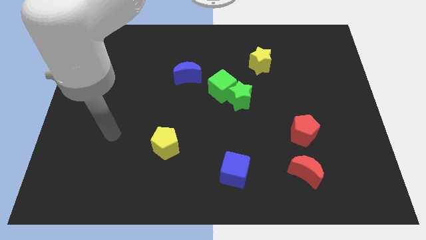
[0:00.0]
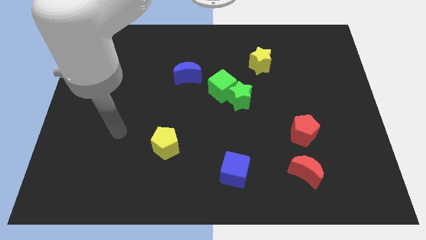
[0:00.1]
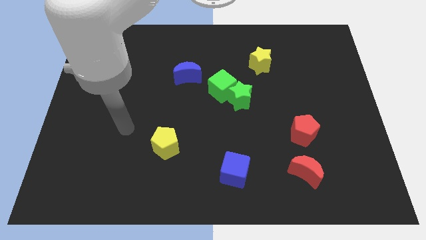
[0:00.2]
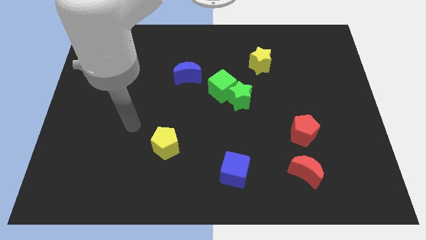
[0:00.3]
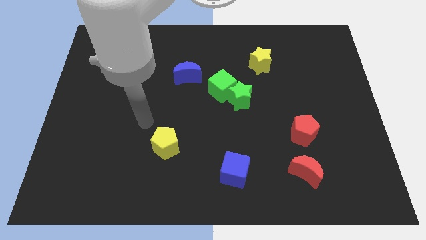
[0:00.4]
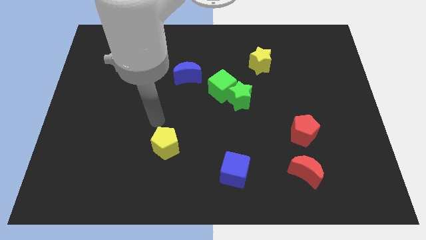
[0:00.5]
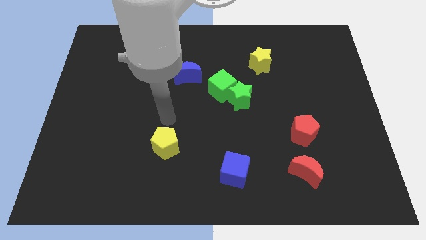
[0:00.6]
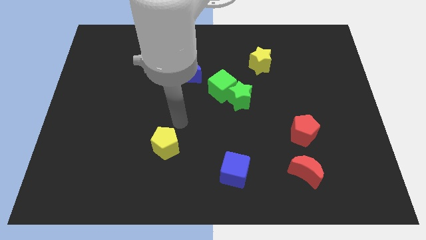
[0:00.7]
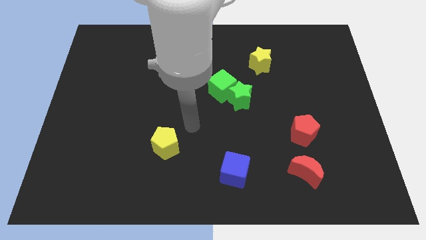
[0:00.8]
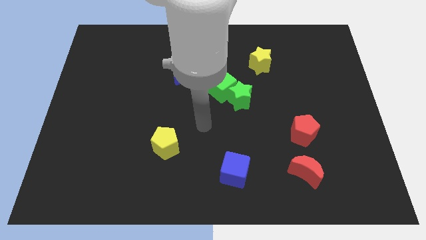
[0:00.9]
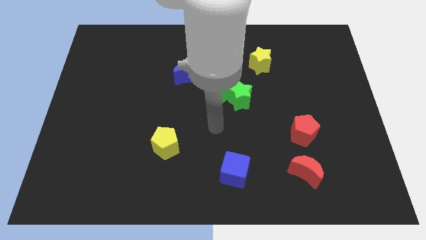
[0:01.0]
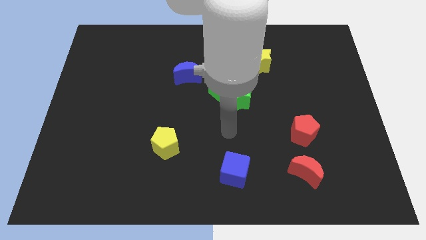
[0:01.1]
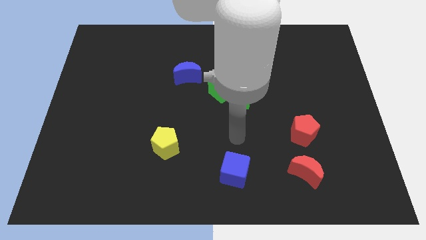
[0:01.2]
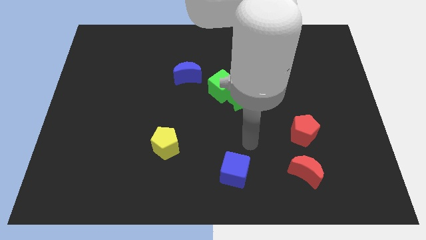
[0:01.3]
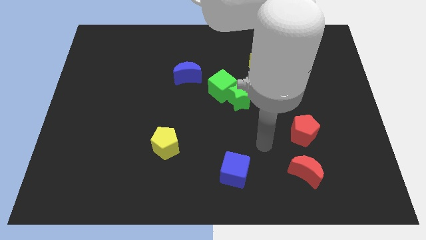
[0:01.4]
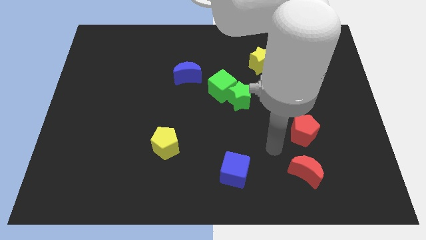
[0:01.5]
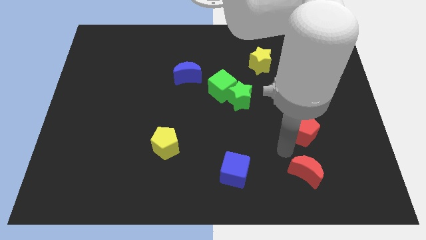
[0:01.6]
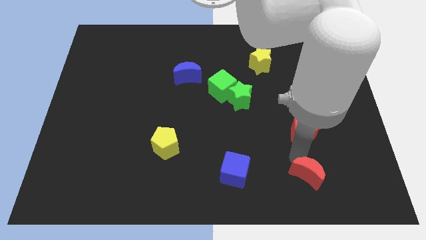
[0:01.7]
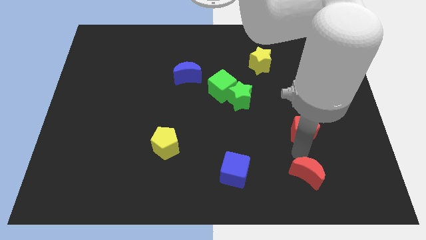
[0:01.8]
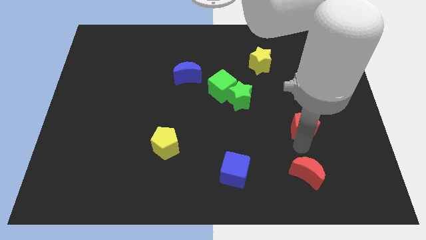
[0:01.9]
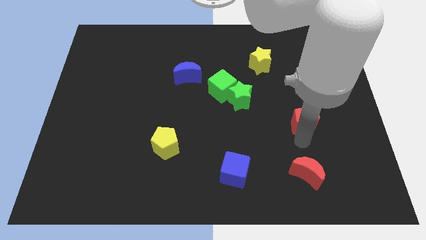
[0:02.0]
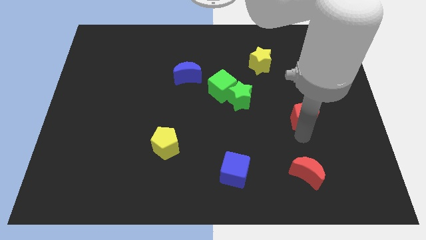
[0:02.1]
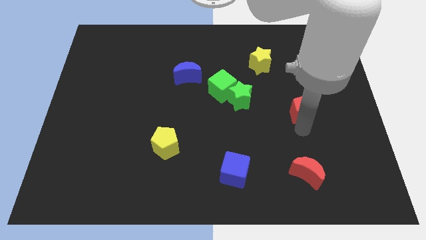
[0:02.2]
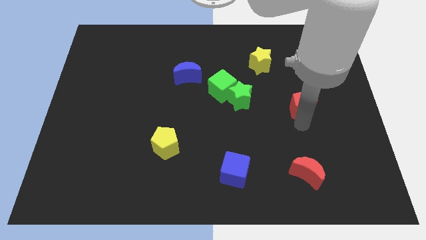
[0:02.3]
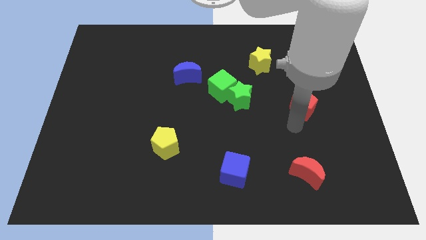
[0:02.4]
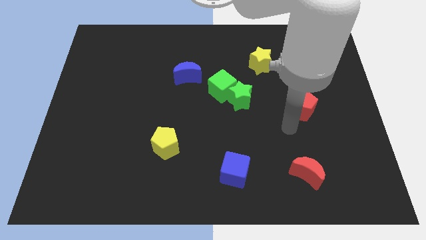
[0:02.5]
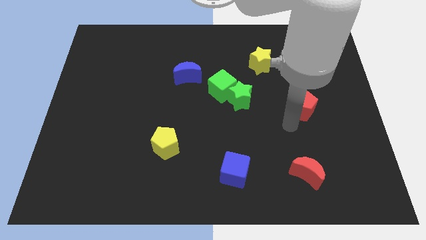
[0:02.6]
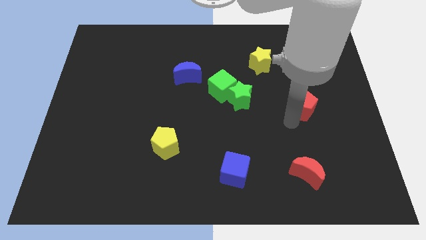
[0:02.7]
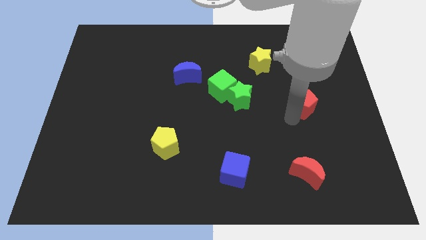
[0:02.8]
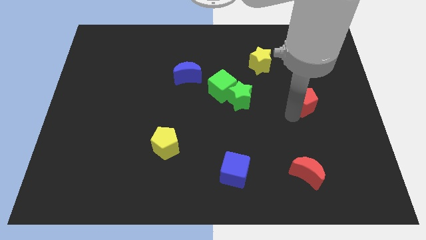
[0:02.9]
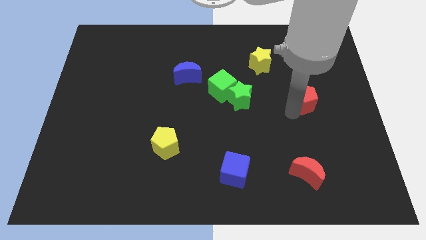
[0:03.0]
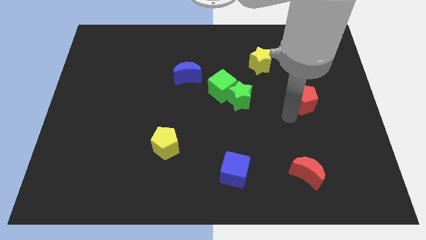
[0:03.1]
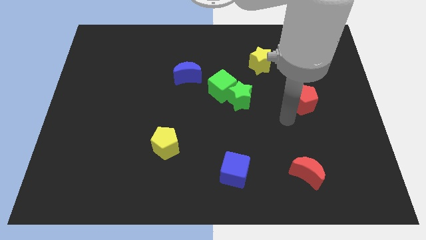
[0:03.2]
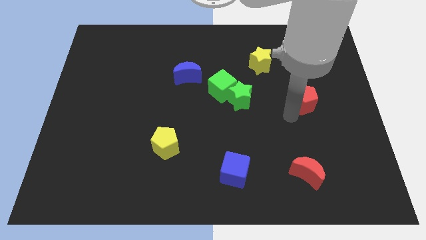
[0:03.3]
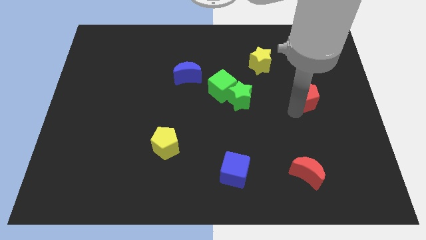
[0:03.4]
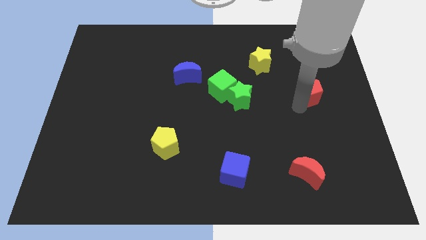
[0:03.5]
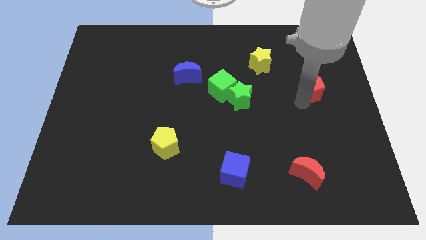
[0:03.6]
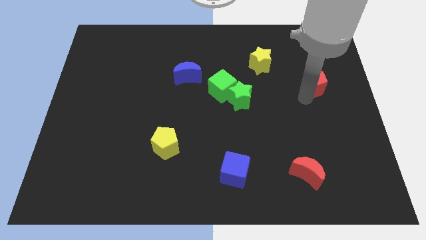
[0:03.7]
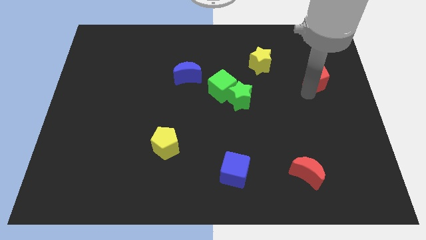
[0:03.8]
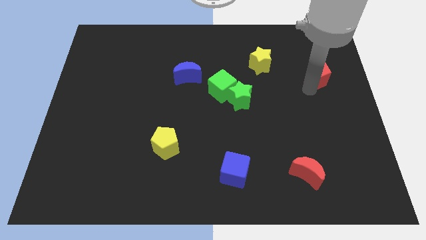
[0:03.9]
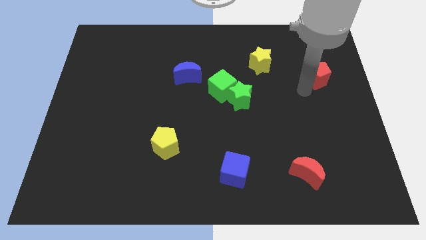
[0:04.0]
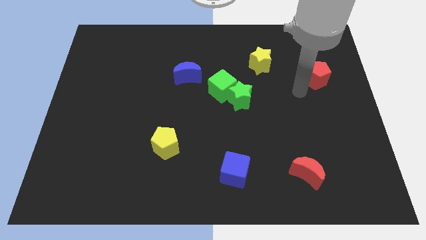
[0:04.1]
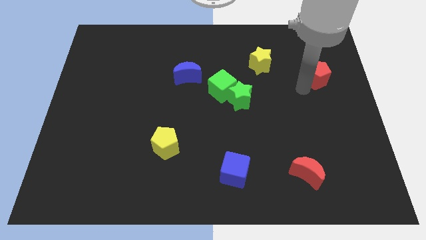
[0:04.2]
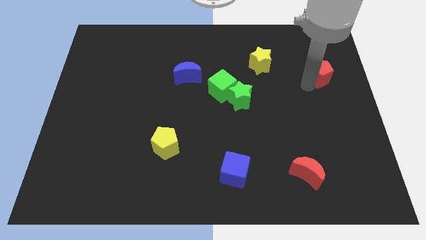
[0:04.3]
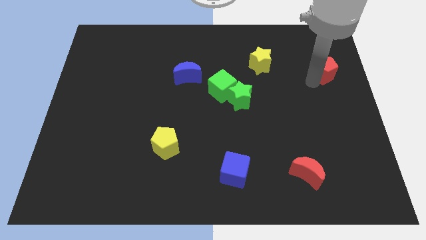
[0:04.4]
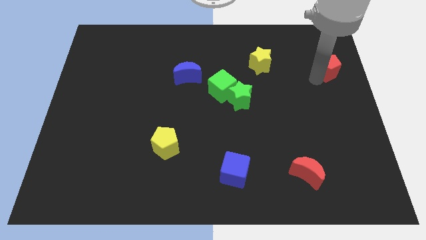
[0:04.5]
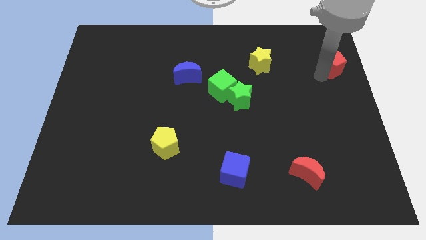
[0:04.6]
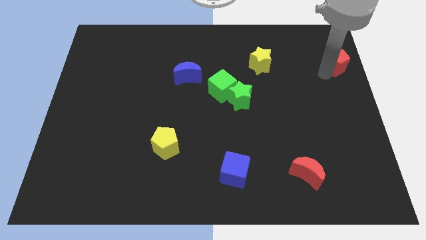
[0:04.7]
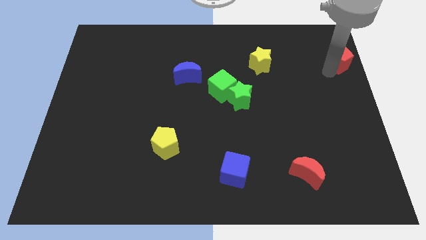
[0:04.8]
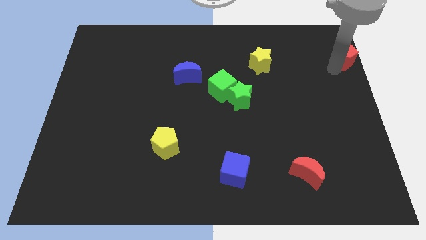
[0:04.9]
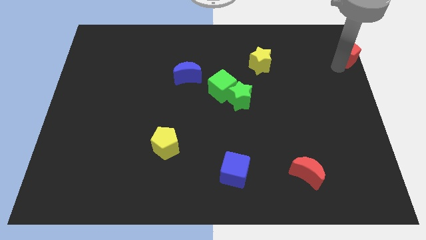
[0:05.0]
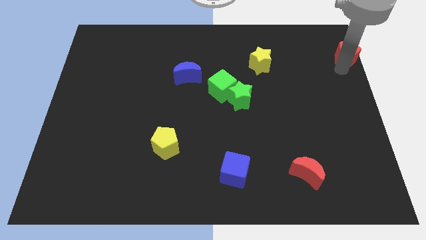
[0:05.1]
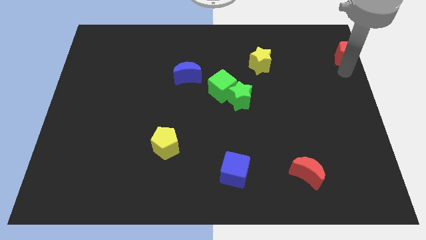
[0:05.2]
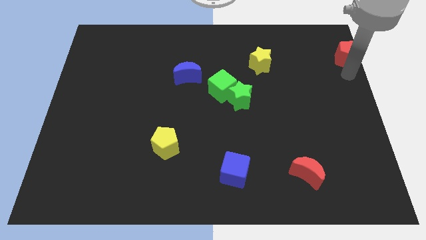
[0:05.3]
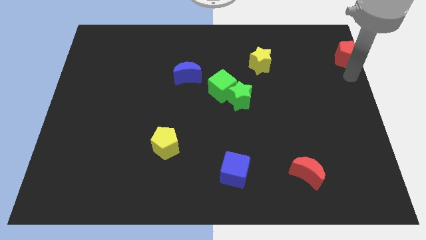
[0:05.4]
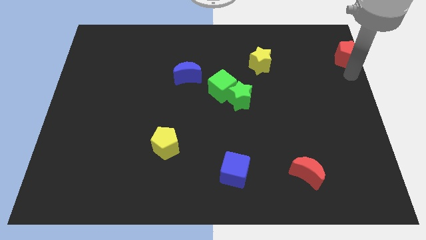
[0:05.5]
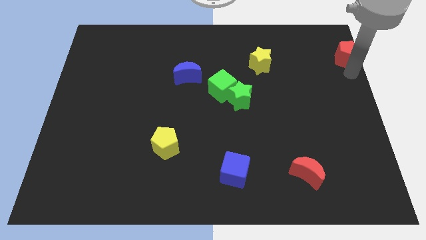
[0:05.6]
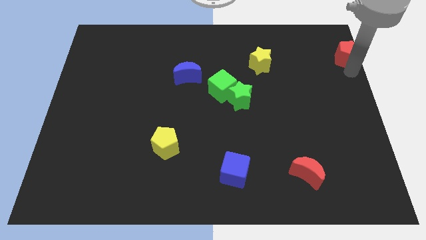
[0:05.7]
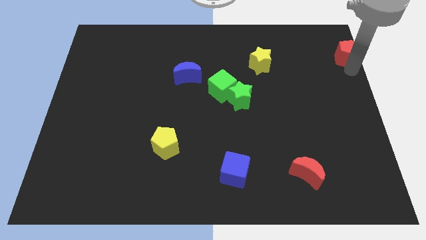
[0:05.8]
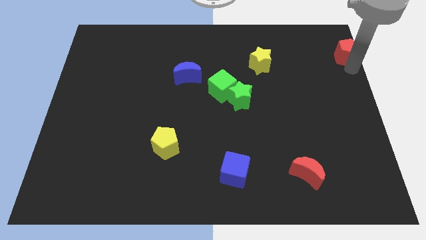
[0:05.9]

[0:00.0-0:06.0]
move the red pentagon to the top right
